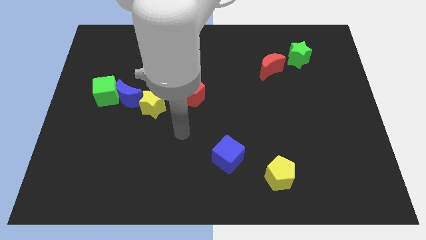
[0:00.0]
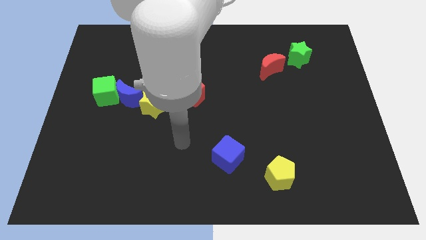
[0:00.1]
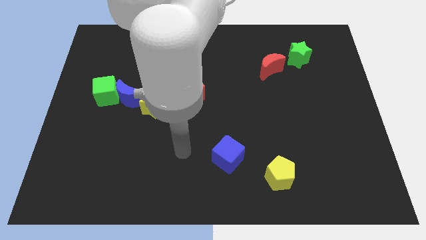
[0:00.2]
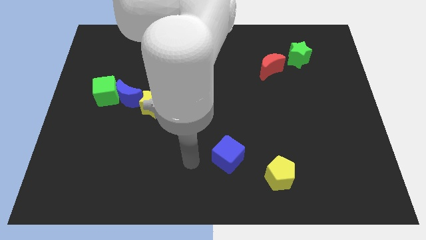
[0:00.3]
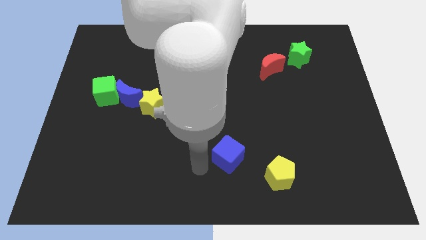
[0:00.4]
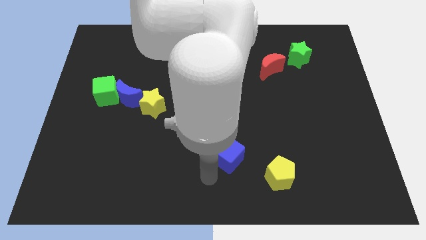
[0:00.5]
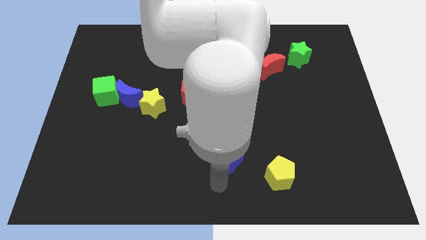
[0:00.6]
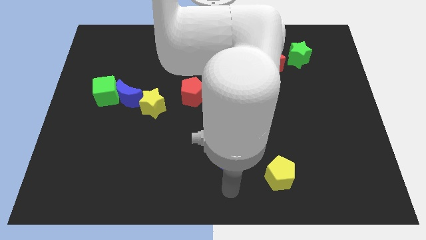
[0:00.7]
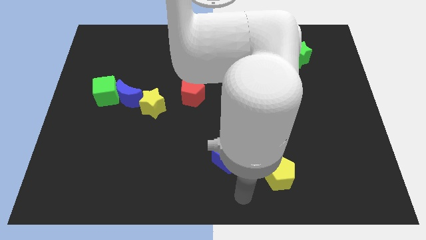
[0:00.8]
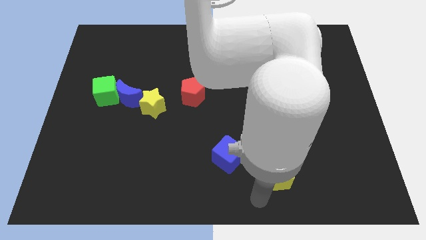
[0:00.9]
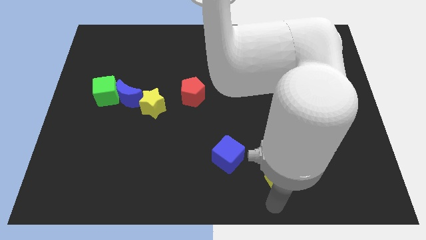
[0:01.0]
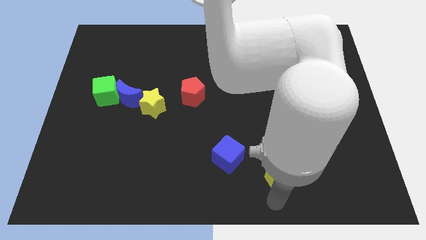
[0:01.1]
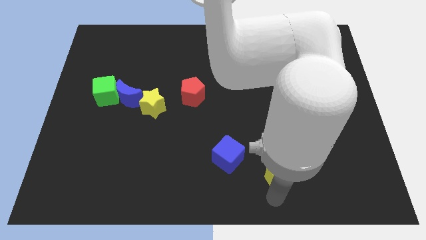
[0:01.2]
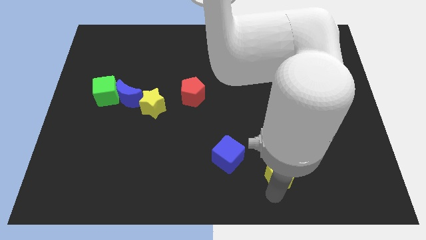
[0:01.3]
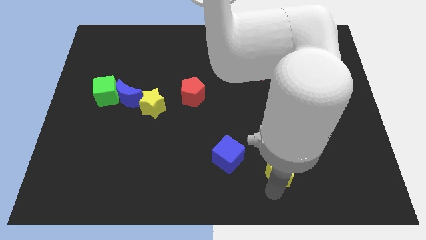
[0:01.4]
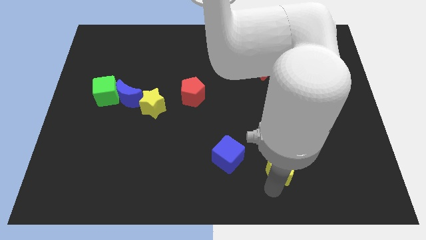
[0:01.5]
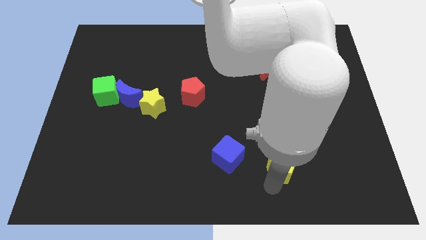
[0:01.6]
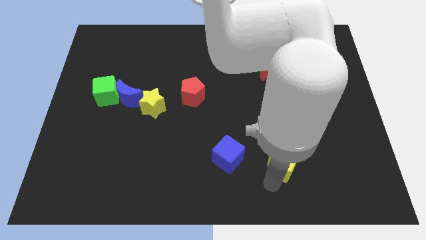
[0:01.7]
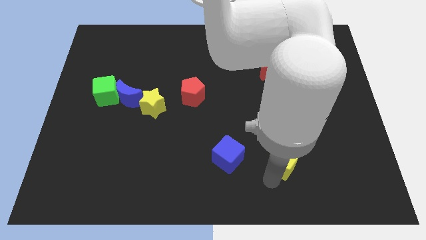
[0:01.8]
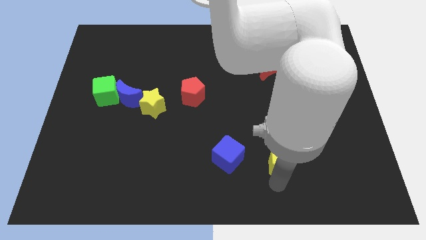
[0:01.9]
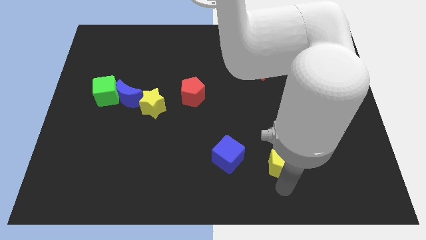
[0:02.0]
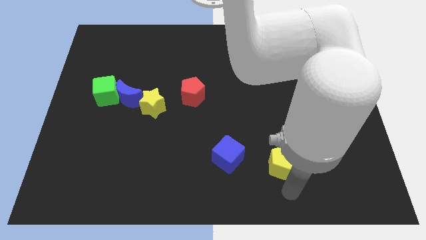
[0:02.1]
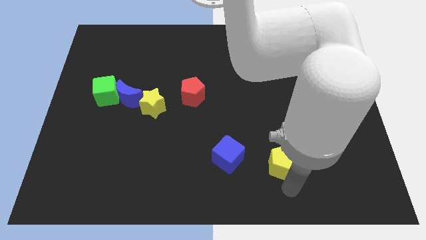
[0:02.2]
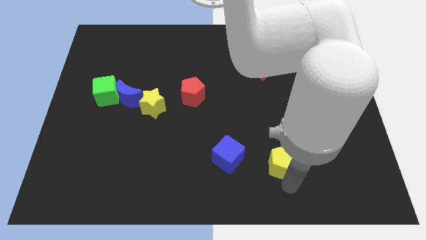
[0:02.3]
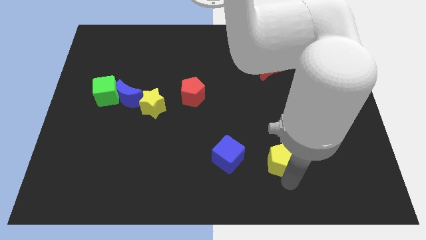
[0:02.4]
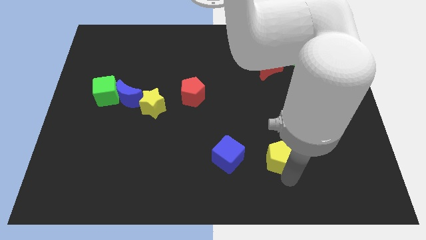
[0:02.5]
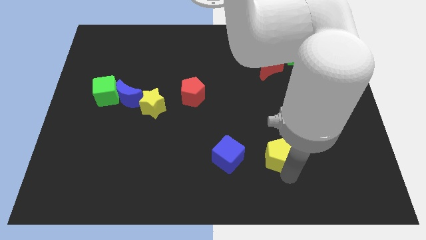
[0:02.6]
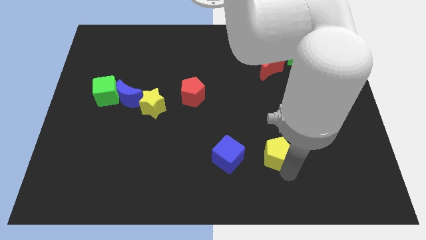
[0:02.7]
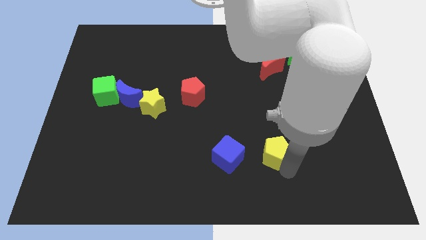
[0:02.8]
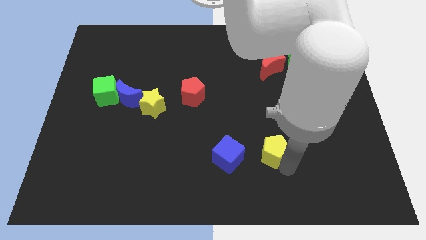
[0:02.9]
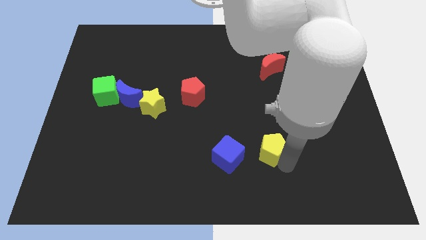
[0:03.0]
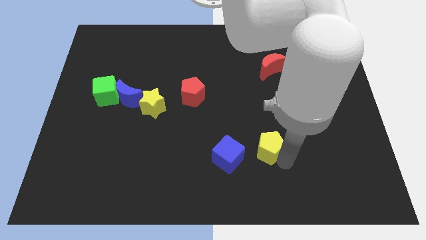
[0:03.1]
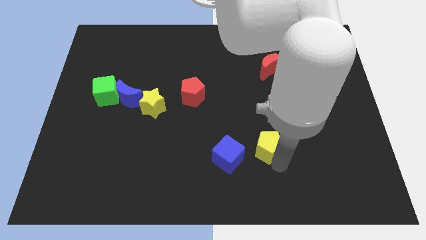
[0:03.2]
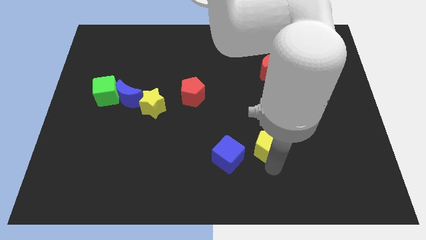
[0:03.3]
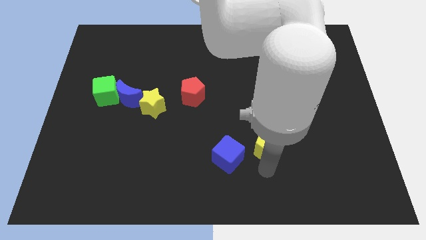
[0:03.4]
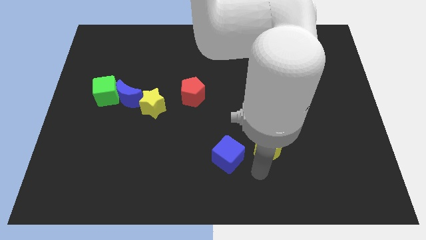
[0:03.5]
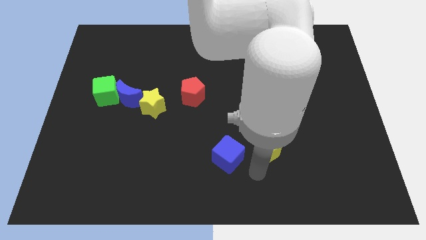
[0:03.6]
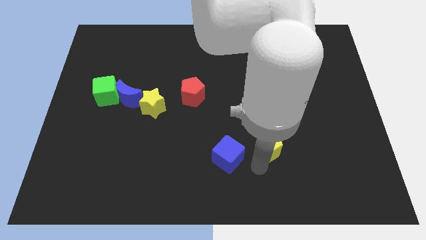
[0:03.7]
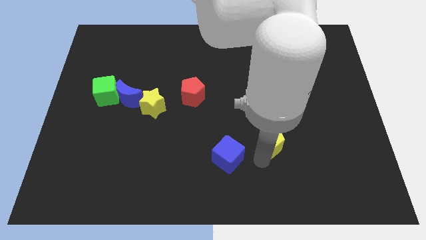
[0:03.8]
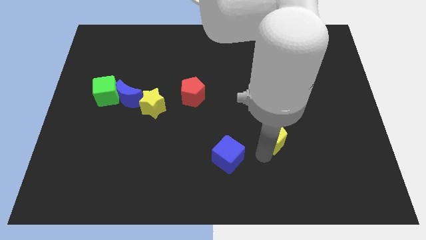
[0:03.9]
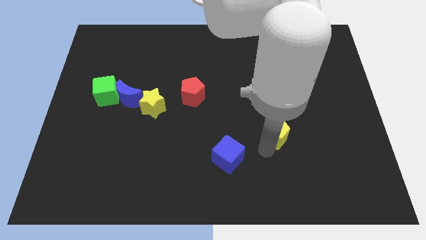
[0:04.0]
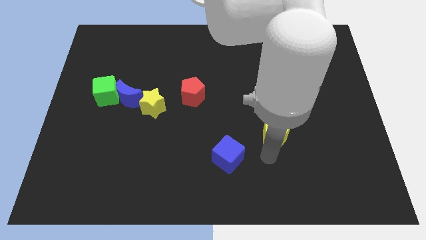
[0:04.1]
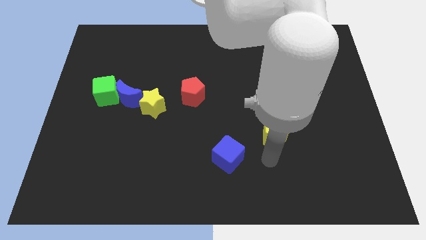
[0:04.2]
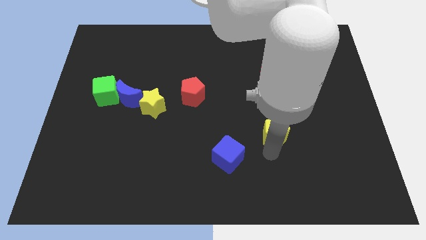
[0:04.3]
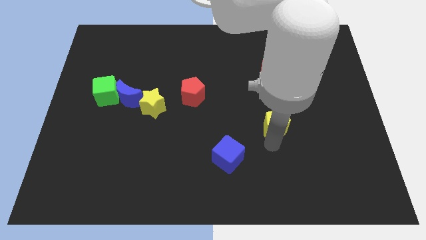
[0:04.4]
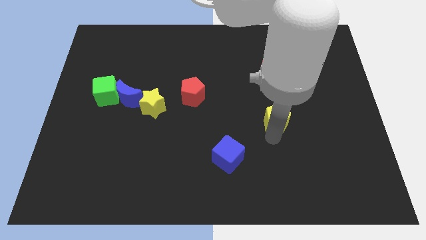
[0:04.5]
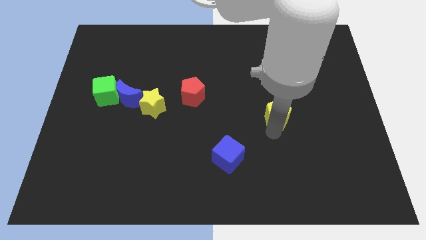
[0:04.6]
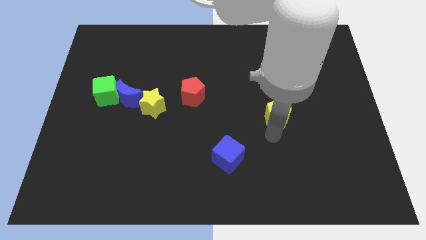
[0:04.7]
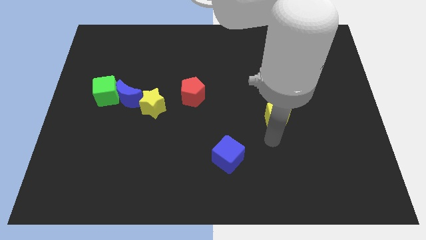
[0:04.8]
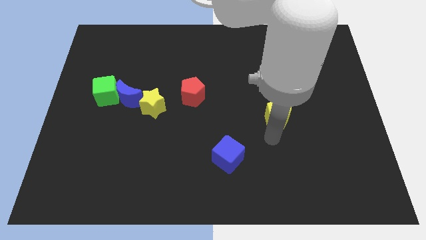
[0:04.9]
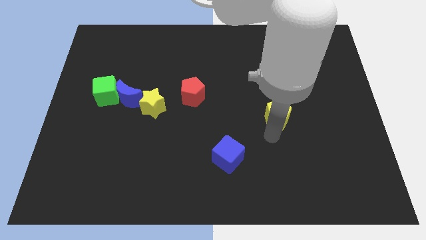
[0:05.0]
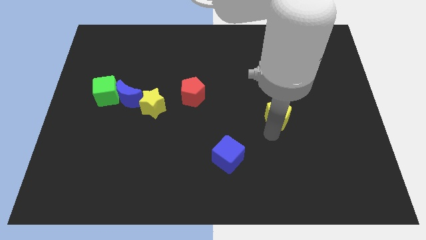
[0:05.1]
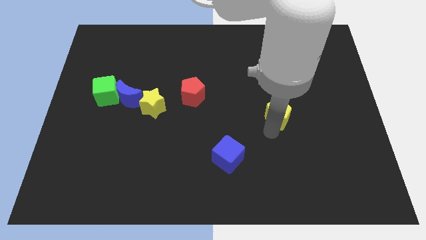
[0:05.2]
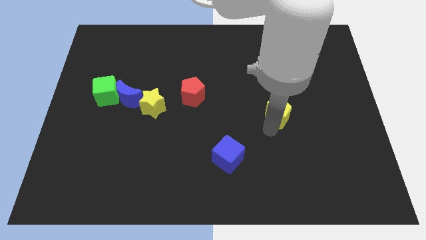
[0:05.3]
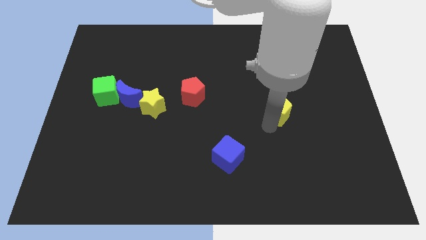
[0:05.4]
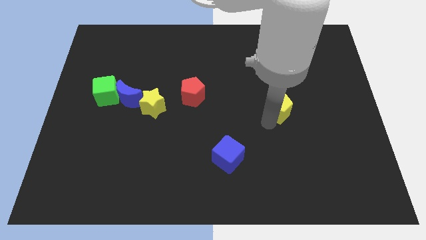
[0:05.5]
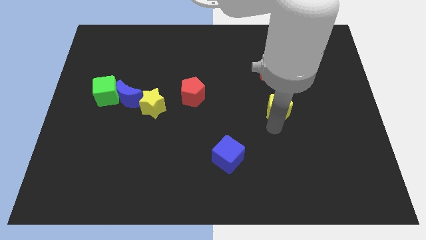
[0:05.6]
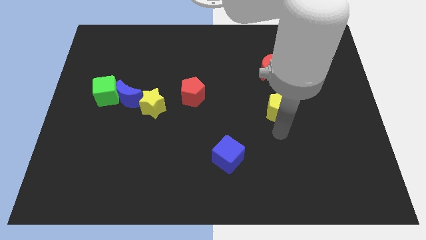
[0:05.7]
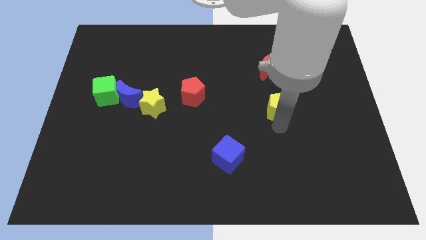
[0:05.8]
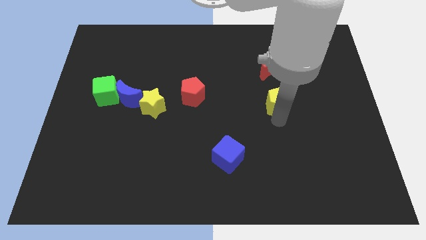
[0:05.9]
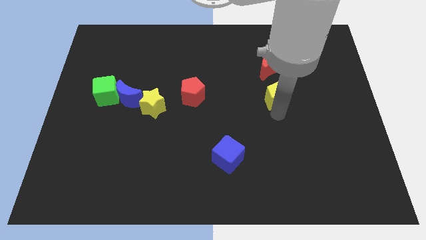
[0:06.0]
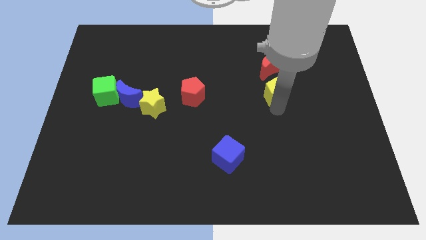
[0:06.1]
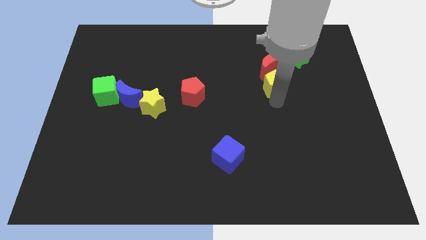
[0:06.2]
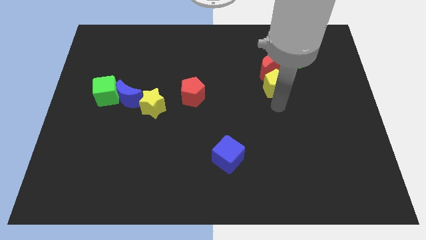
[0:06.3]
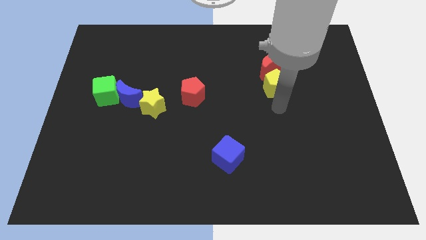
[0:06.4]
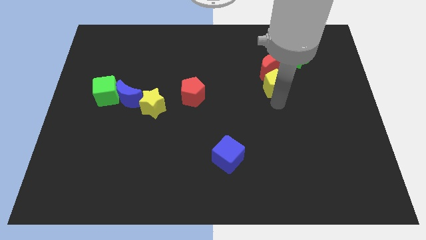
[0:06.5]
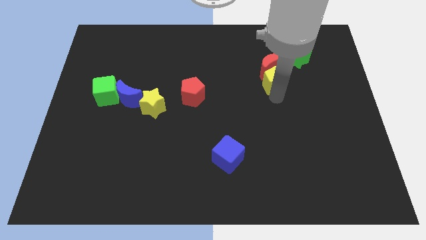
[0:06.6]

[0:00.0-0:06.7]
move the yellow pentagon towards the red moon
